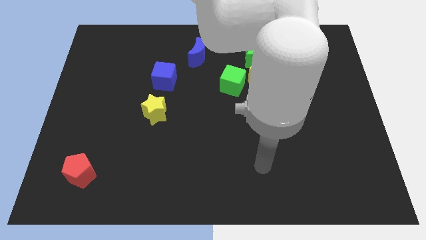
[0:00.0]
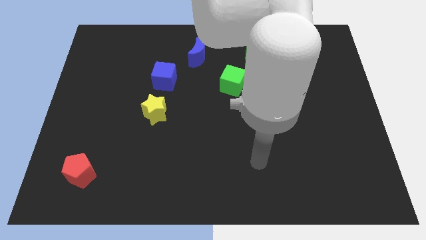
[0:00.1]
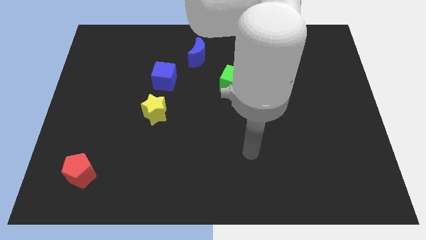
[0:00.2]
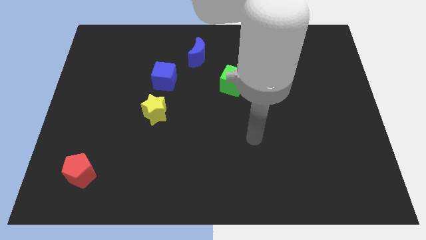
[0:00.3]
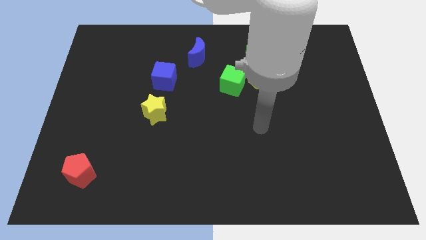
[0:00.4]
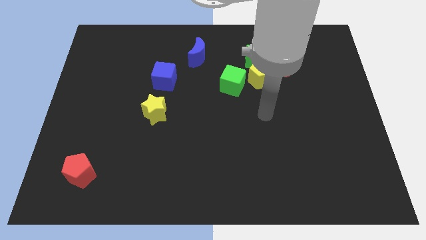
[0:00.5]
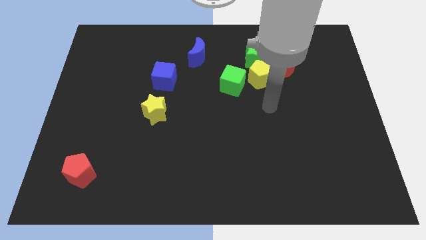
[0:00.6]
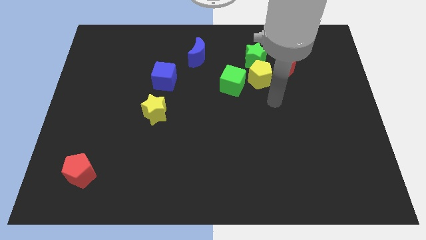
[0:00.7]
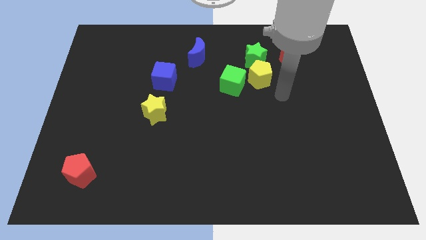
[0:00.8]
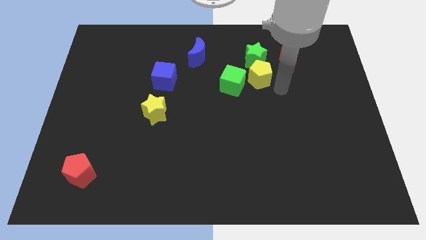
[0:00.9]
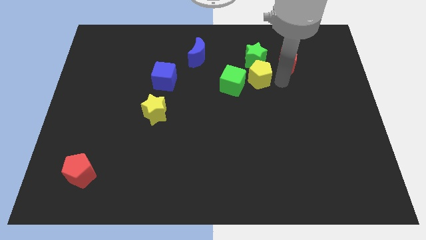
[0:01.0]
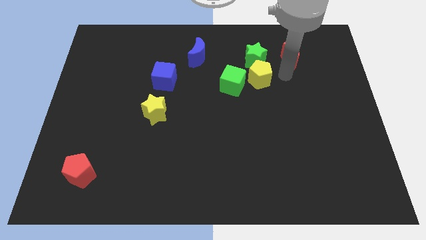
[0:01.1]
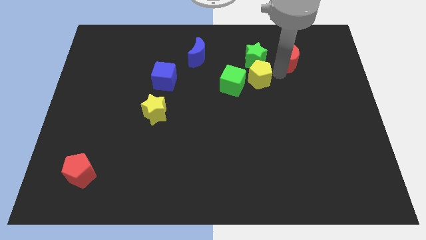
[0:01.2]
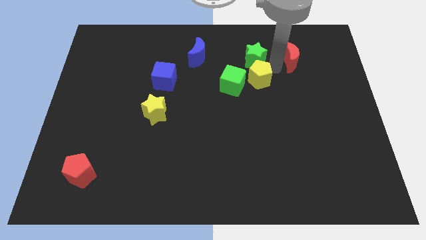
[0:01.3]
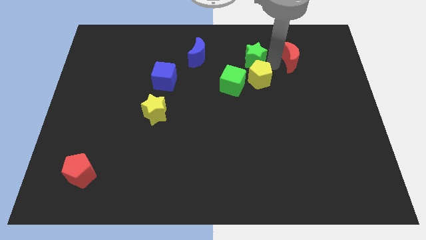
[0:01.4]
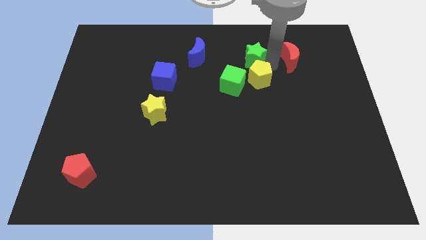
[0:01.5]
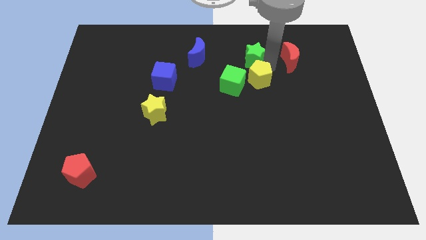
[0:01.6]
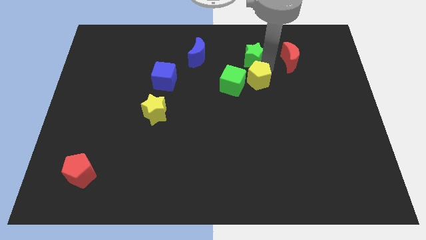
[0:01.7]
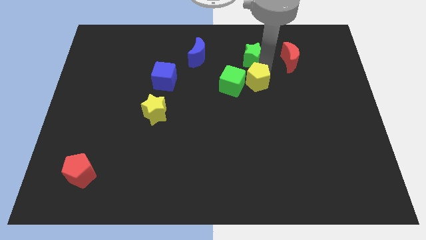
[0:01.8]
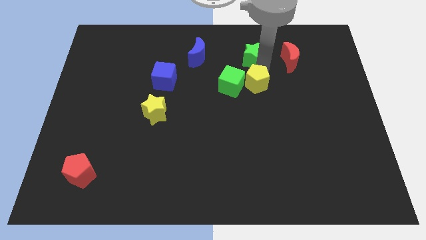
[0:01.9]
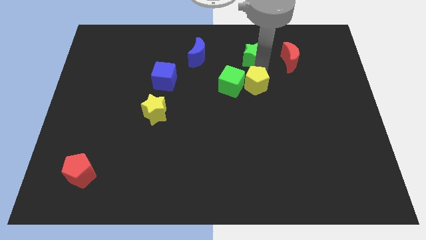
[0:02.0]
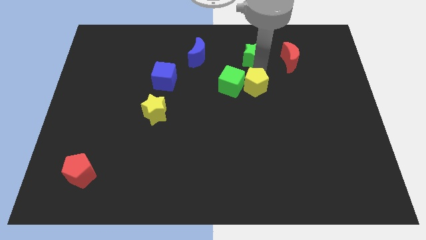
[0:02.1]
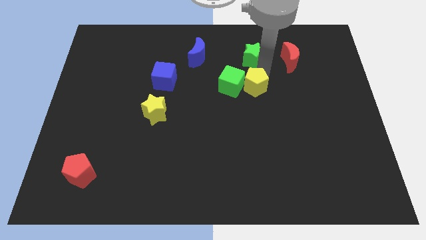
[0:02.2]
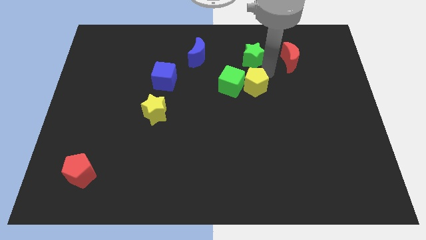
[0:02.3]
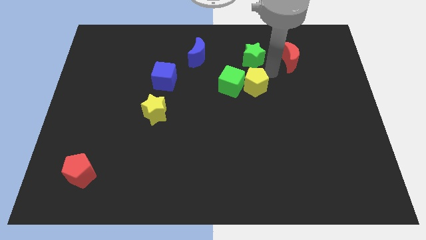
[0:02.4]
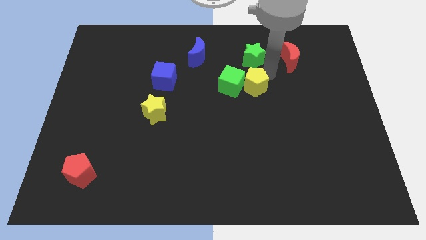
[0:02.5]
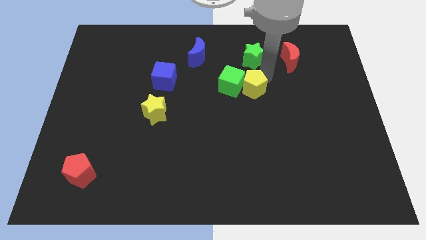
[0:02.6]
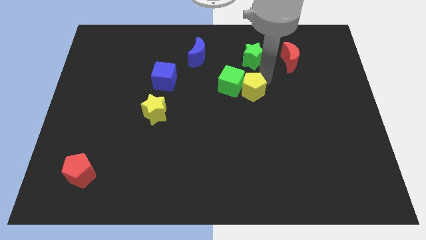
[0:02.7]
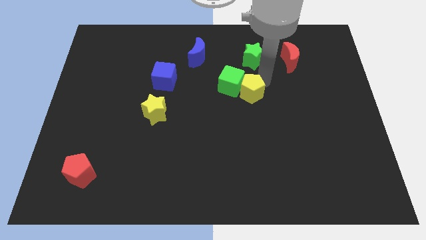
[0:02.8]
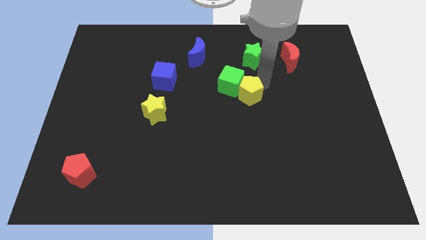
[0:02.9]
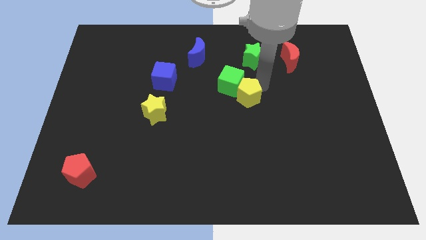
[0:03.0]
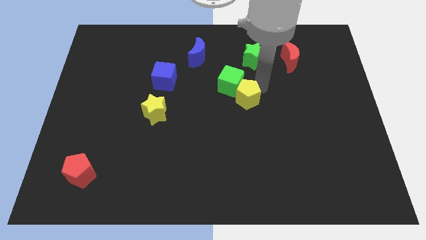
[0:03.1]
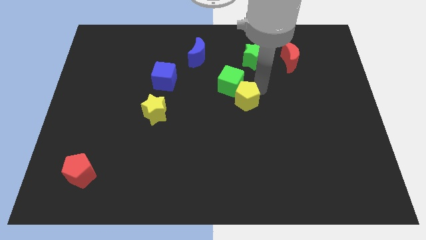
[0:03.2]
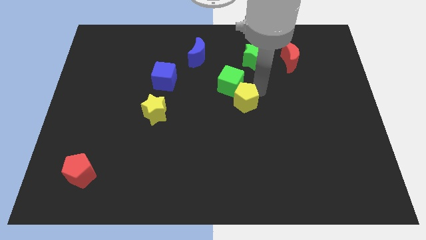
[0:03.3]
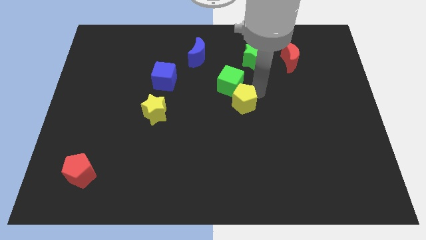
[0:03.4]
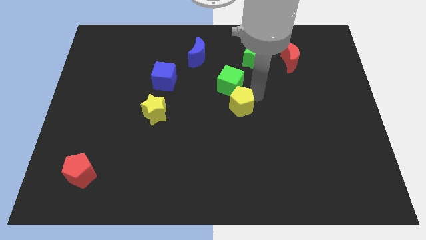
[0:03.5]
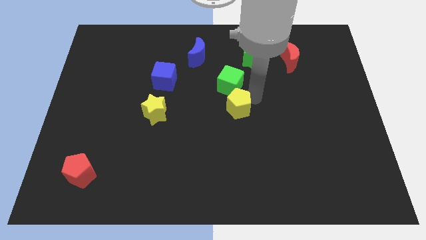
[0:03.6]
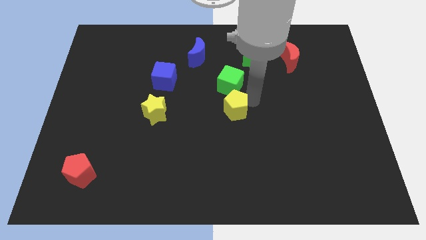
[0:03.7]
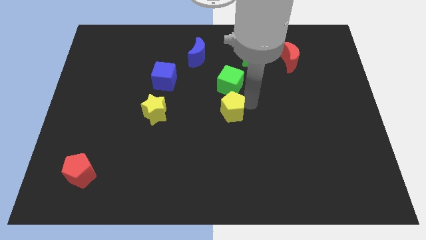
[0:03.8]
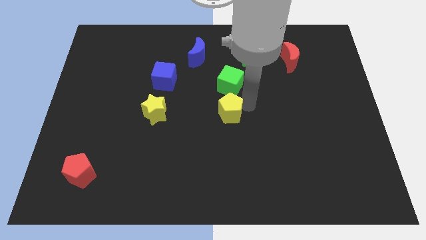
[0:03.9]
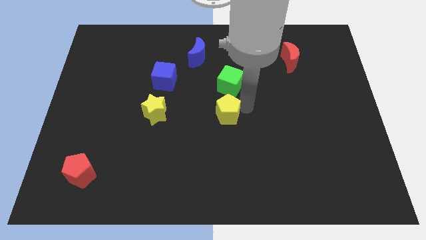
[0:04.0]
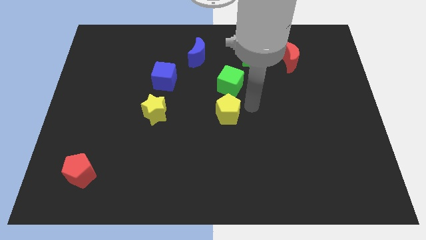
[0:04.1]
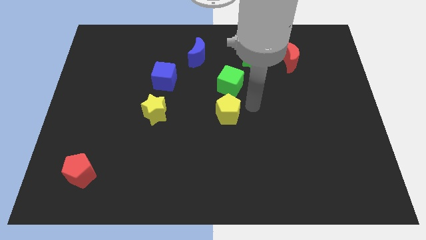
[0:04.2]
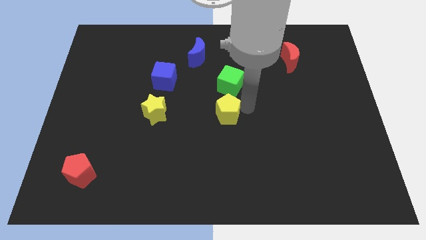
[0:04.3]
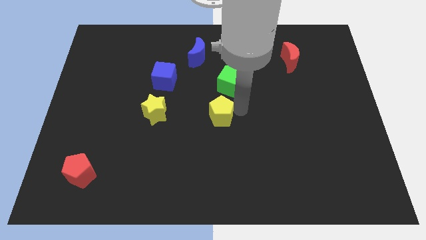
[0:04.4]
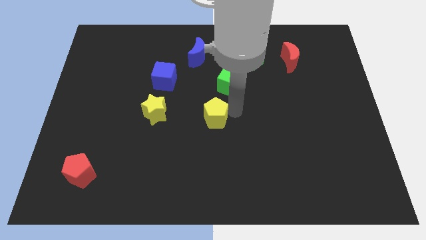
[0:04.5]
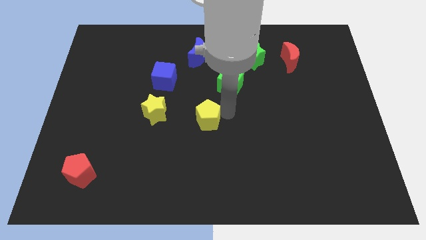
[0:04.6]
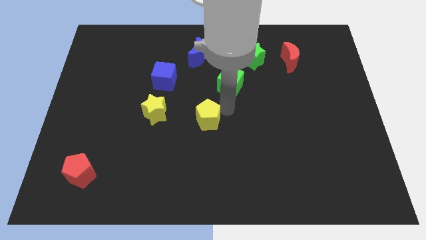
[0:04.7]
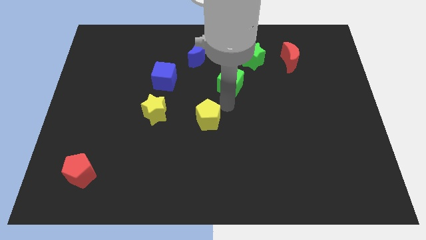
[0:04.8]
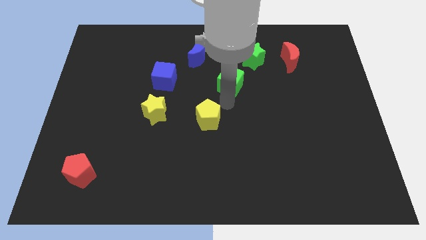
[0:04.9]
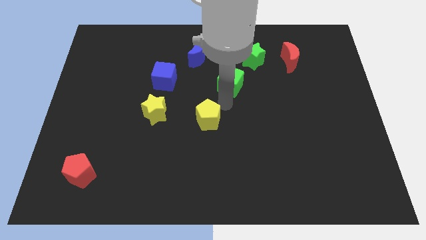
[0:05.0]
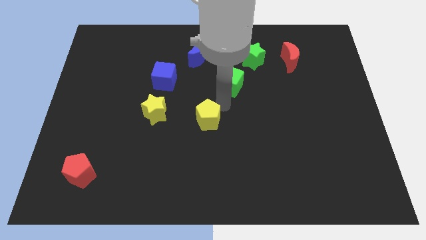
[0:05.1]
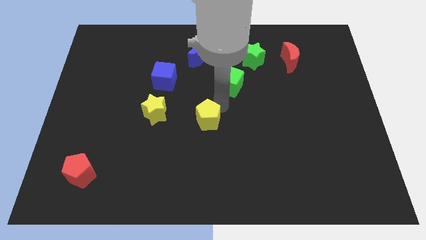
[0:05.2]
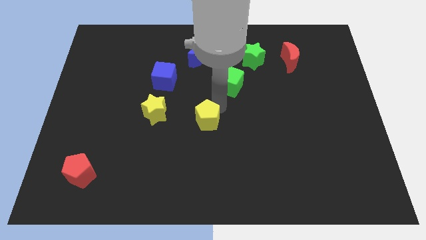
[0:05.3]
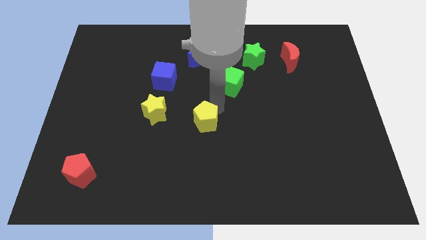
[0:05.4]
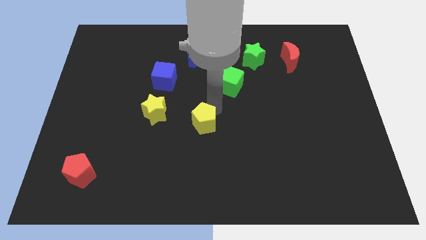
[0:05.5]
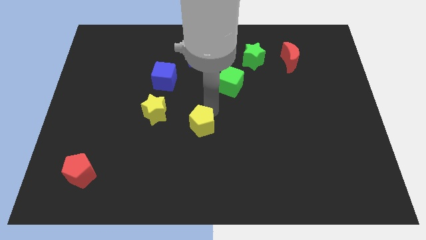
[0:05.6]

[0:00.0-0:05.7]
slide the yellow pentagon down and then to the left

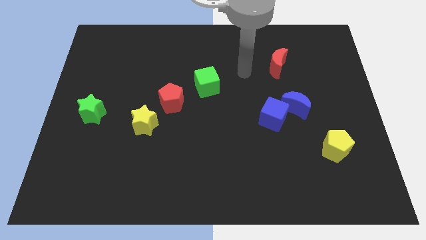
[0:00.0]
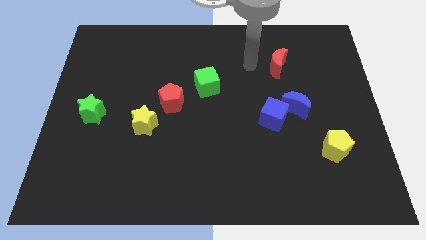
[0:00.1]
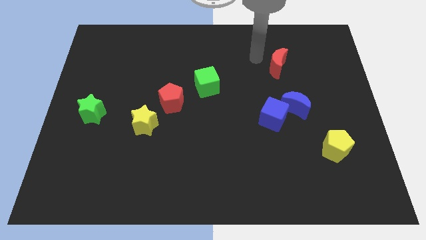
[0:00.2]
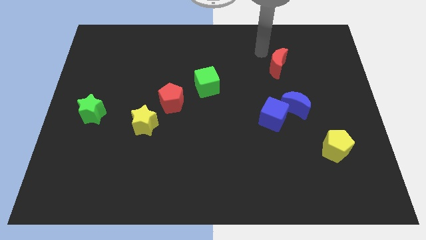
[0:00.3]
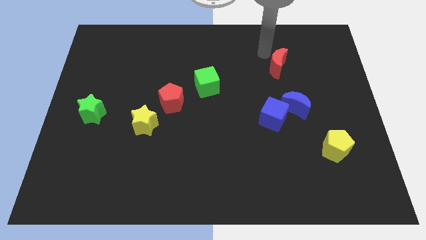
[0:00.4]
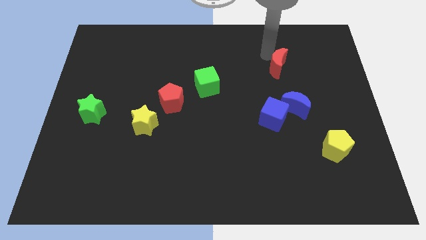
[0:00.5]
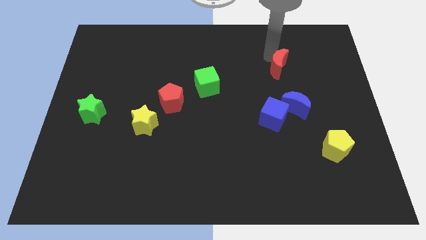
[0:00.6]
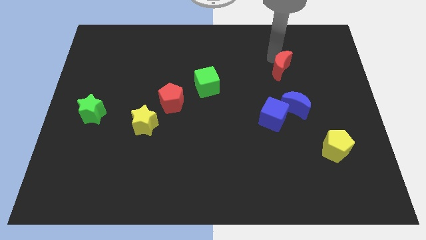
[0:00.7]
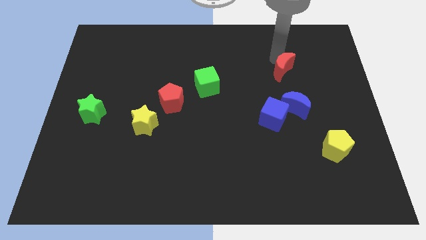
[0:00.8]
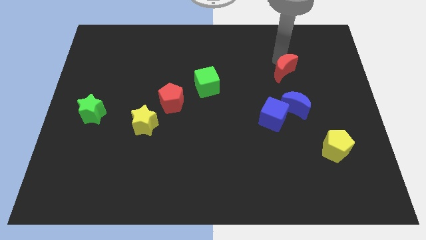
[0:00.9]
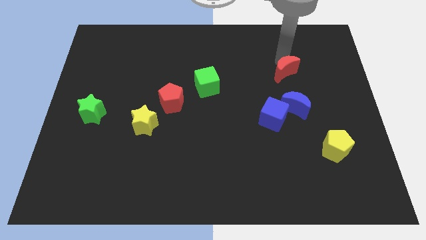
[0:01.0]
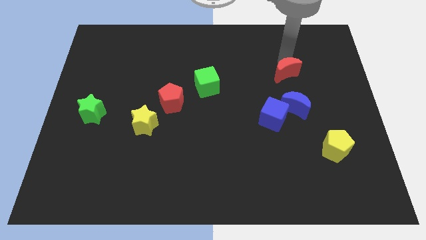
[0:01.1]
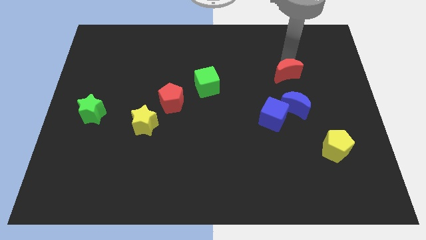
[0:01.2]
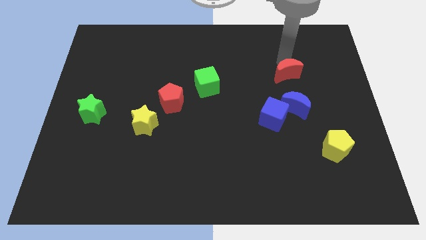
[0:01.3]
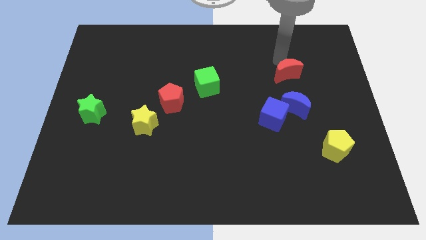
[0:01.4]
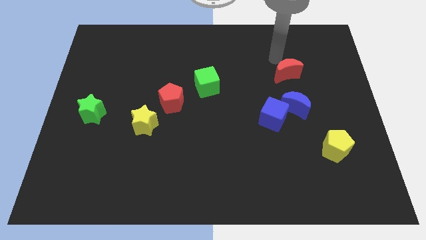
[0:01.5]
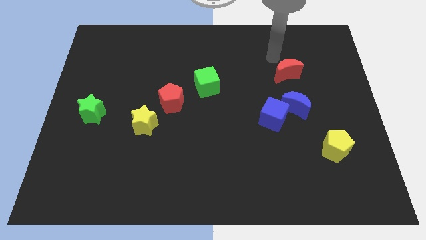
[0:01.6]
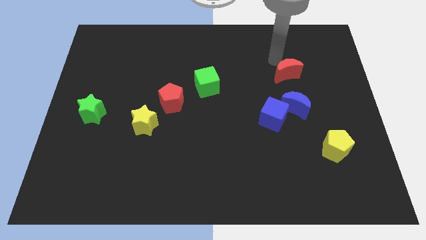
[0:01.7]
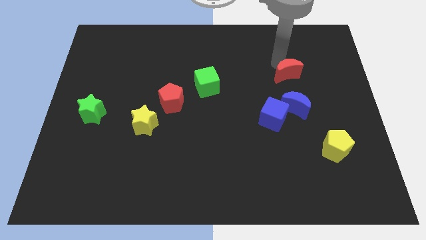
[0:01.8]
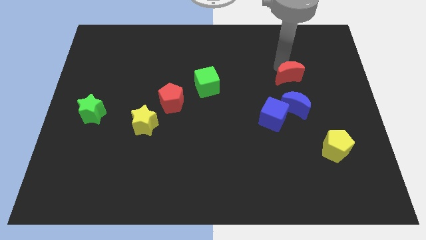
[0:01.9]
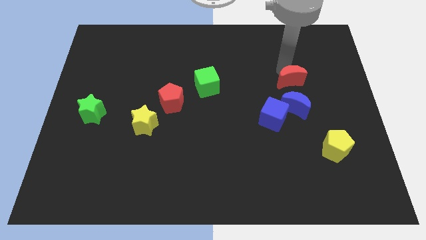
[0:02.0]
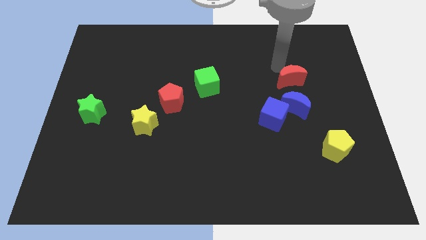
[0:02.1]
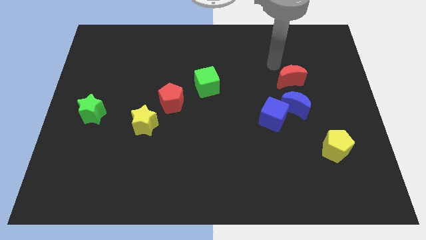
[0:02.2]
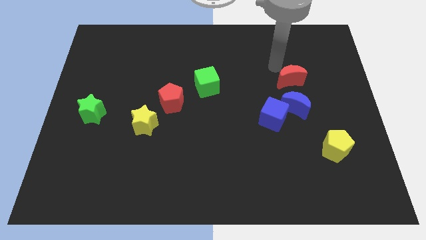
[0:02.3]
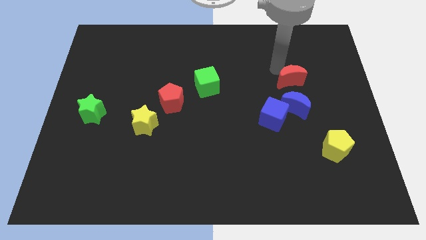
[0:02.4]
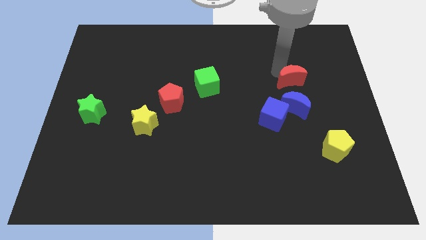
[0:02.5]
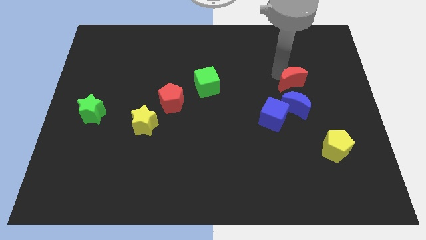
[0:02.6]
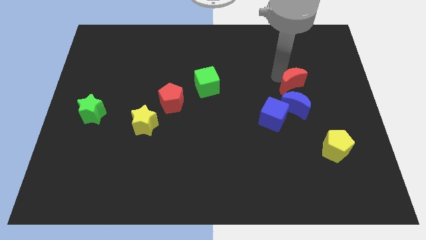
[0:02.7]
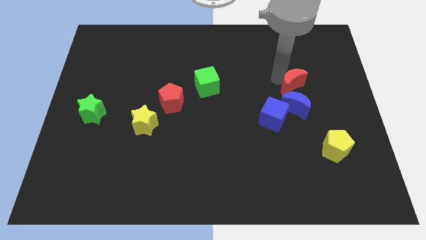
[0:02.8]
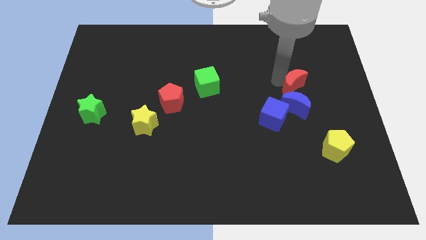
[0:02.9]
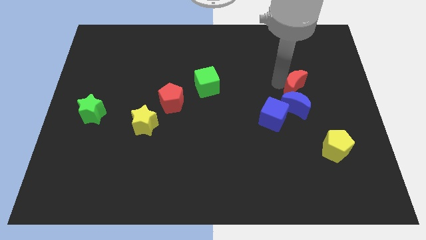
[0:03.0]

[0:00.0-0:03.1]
move the red moon slightly downwards
